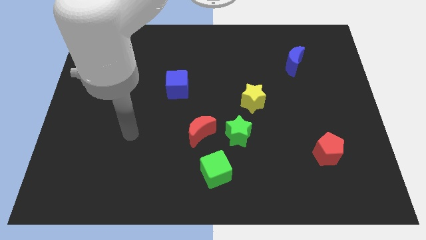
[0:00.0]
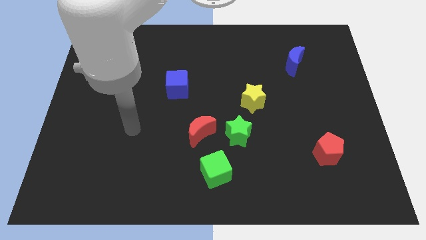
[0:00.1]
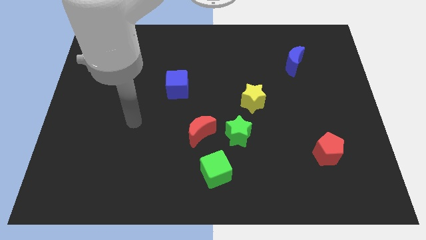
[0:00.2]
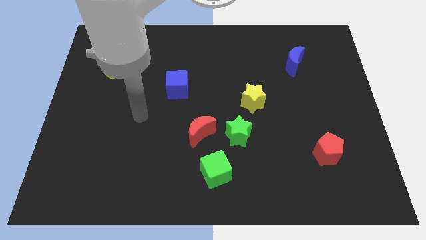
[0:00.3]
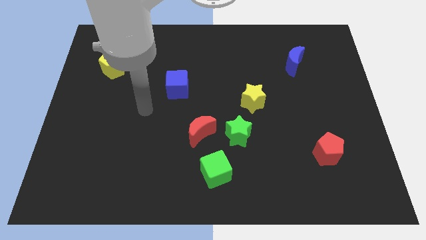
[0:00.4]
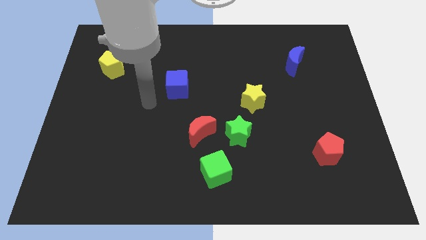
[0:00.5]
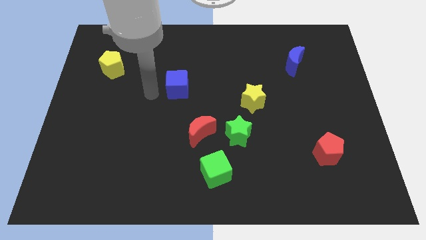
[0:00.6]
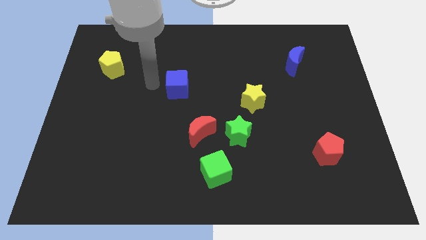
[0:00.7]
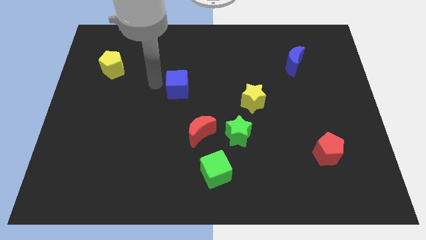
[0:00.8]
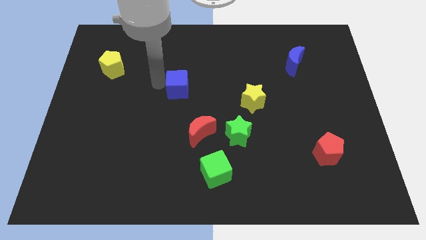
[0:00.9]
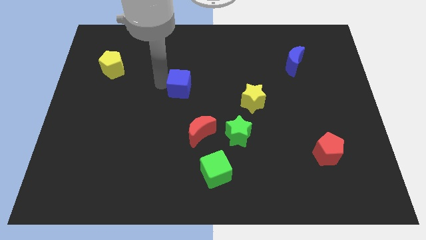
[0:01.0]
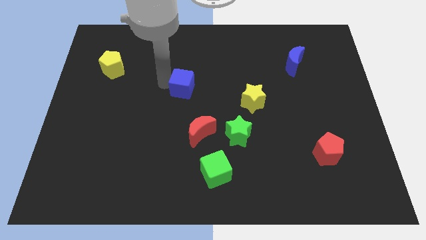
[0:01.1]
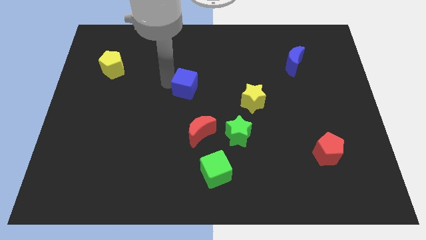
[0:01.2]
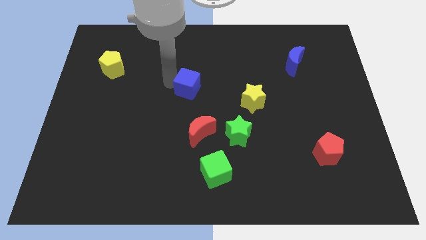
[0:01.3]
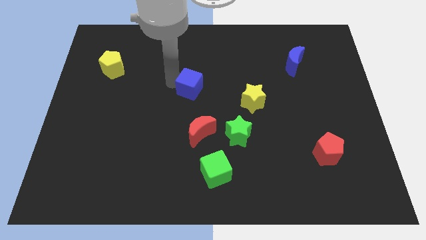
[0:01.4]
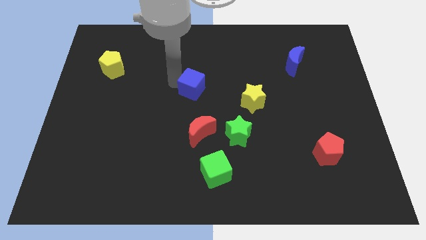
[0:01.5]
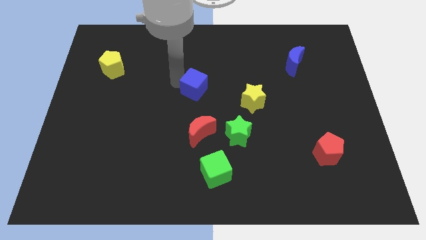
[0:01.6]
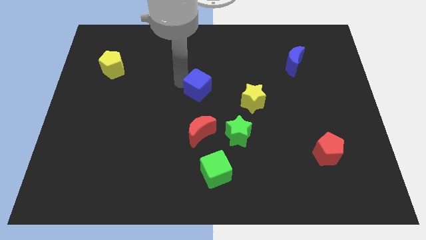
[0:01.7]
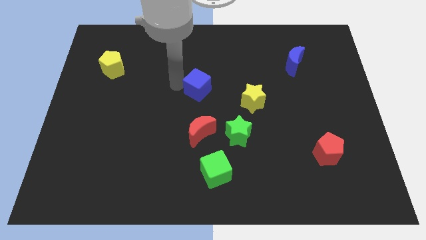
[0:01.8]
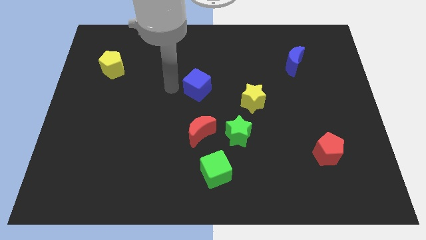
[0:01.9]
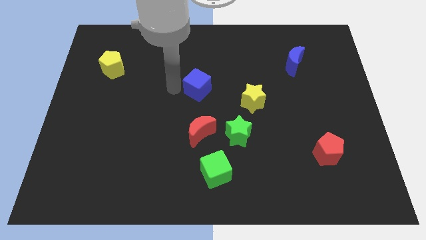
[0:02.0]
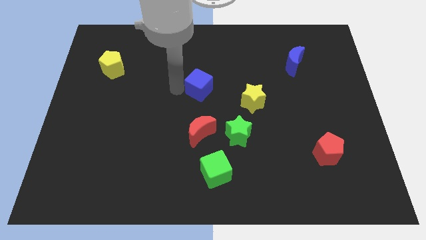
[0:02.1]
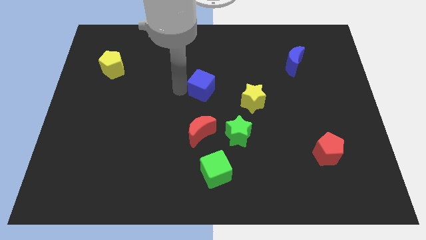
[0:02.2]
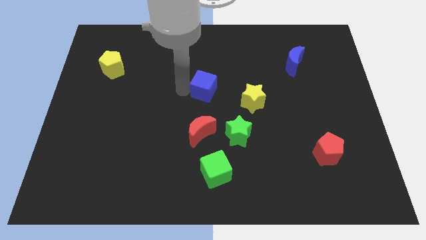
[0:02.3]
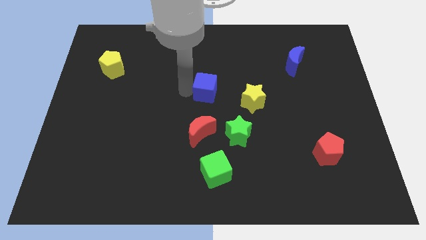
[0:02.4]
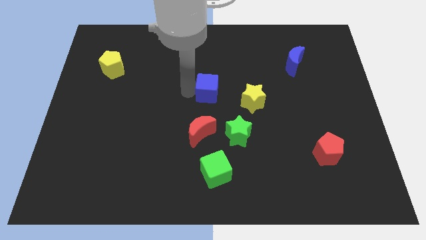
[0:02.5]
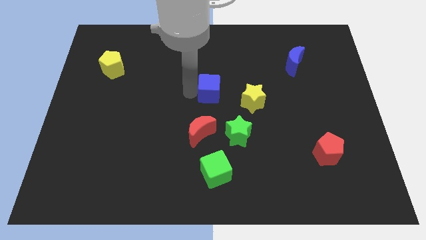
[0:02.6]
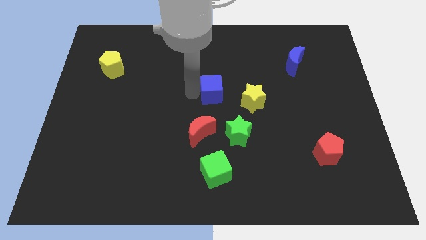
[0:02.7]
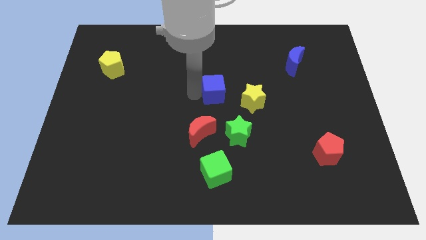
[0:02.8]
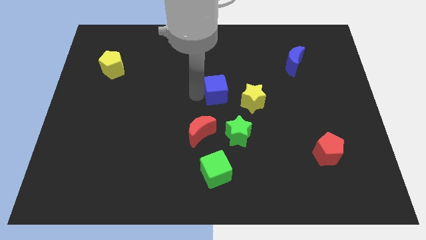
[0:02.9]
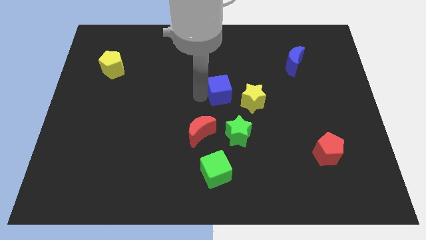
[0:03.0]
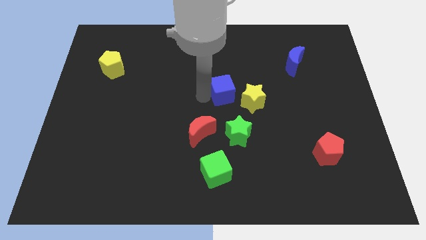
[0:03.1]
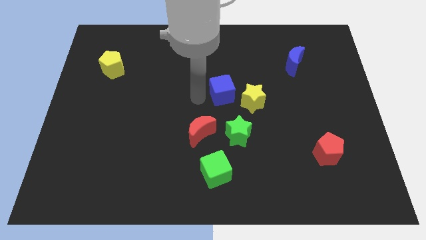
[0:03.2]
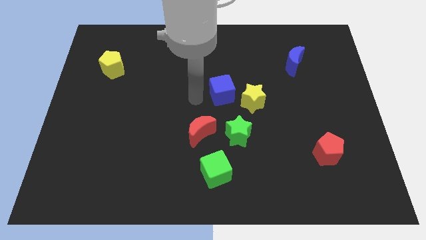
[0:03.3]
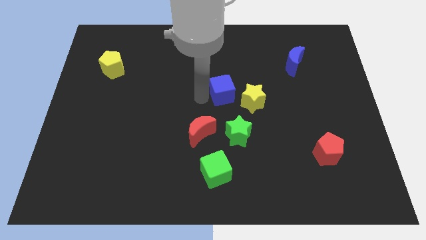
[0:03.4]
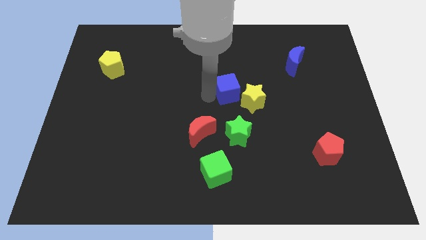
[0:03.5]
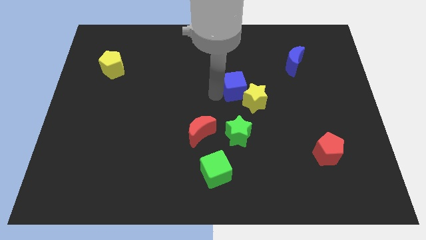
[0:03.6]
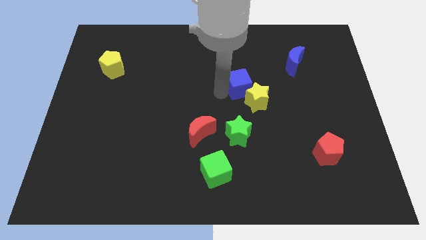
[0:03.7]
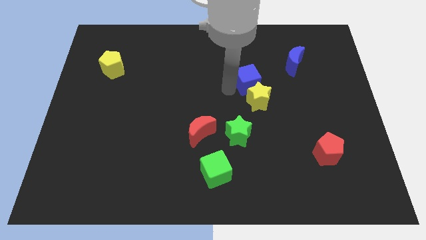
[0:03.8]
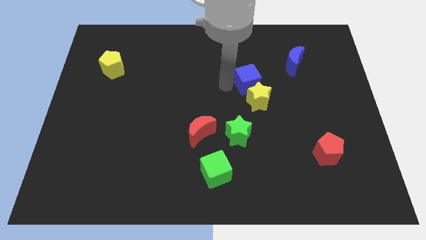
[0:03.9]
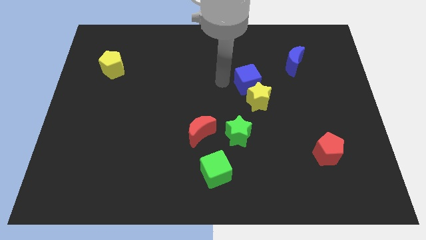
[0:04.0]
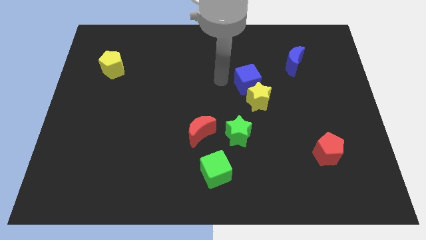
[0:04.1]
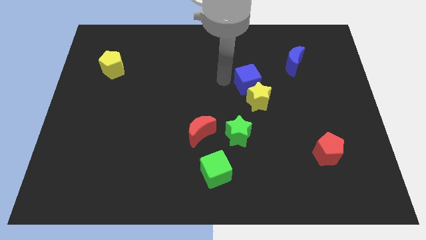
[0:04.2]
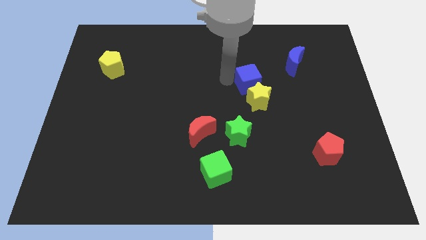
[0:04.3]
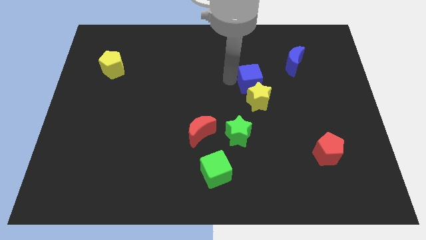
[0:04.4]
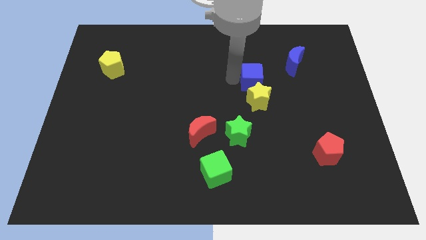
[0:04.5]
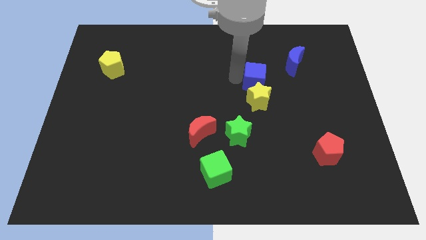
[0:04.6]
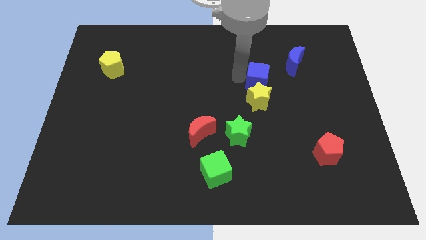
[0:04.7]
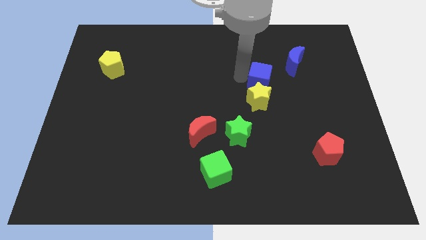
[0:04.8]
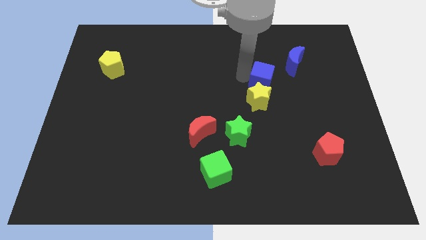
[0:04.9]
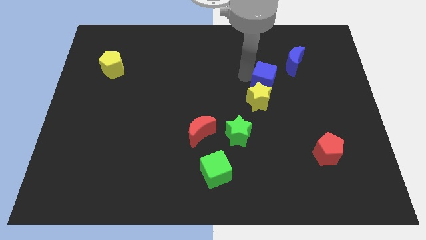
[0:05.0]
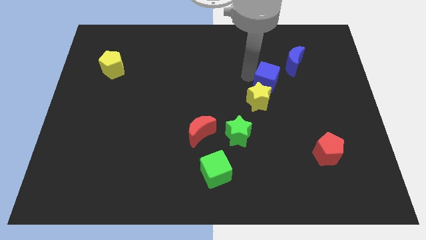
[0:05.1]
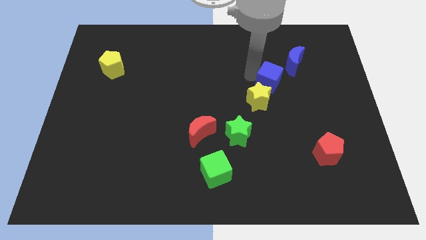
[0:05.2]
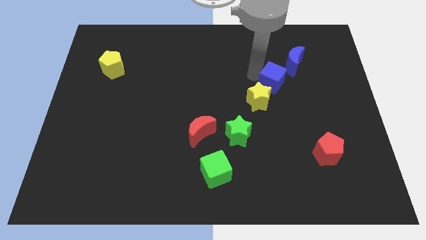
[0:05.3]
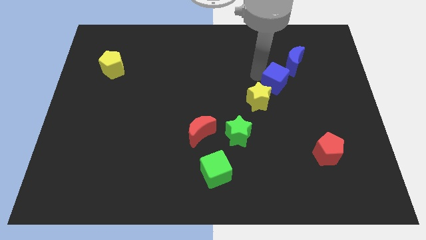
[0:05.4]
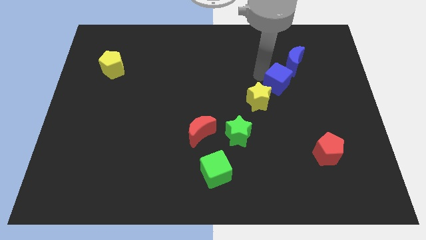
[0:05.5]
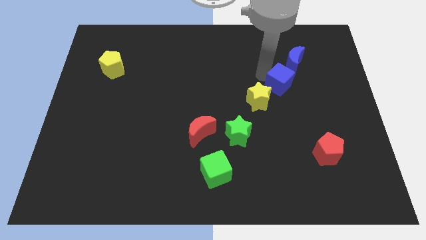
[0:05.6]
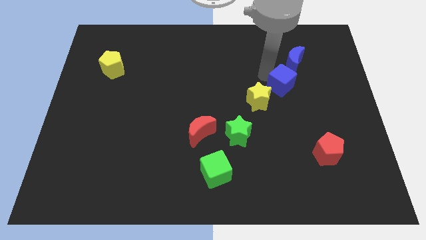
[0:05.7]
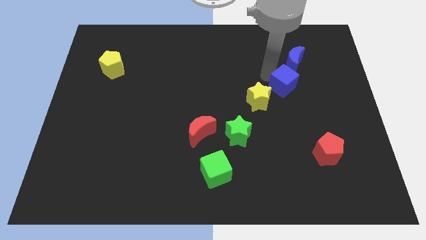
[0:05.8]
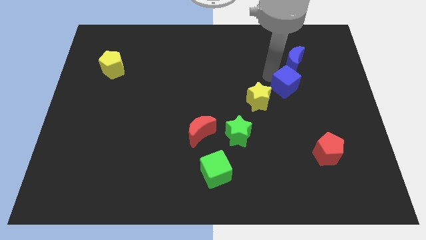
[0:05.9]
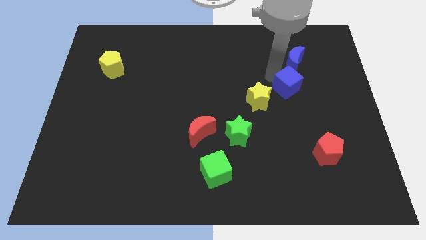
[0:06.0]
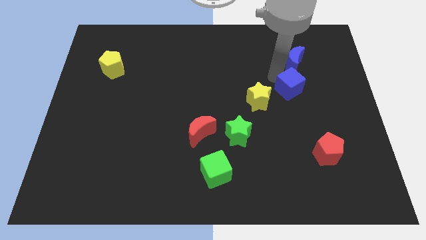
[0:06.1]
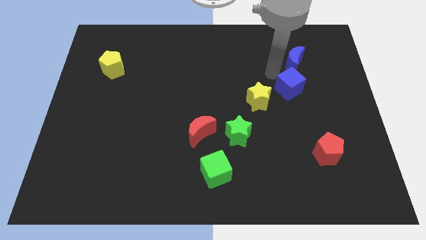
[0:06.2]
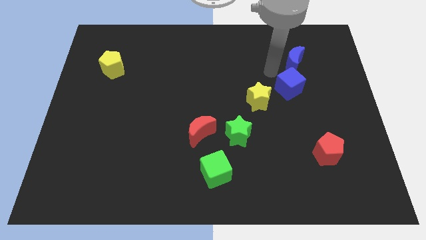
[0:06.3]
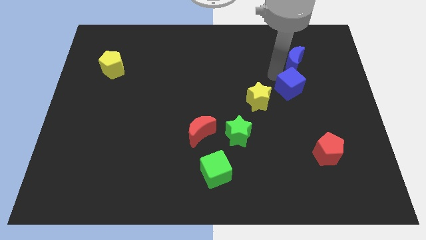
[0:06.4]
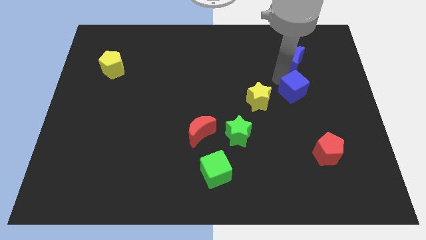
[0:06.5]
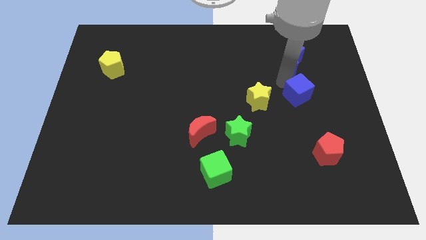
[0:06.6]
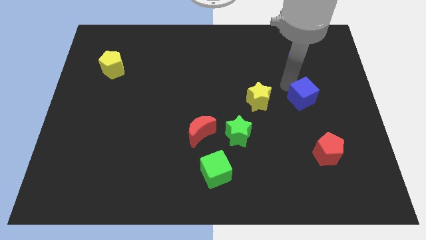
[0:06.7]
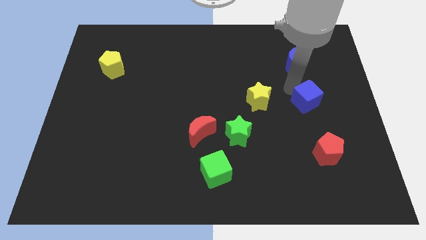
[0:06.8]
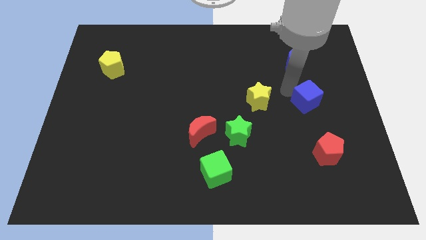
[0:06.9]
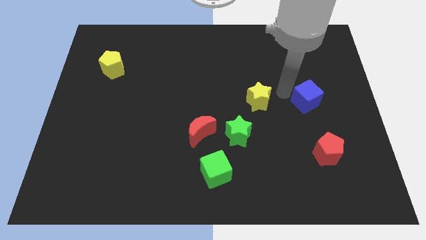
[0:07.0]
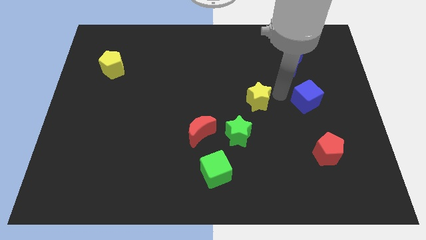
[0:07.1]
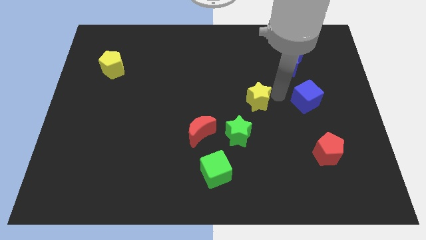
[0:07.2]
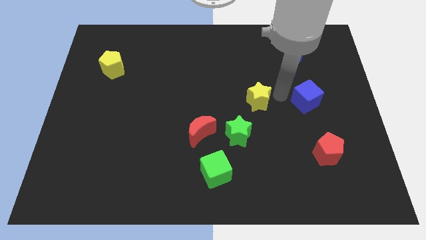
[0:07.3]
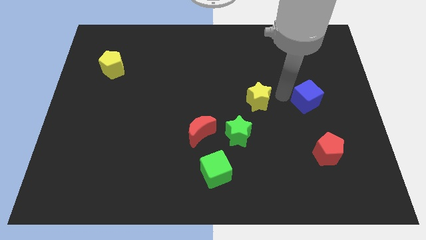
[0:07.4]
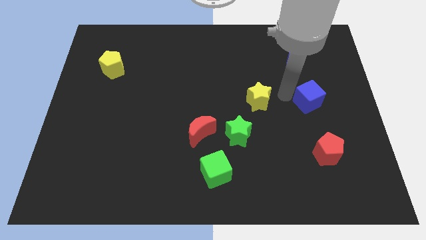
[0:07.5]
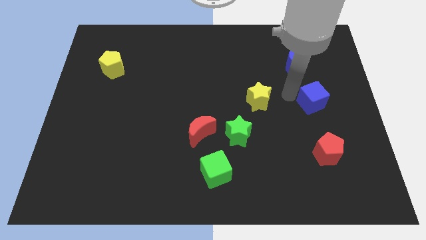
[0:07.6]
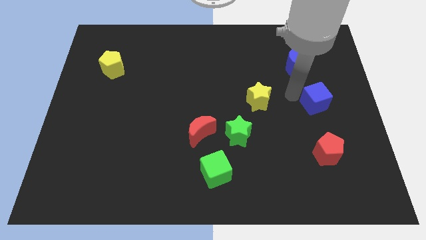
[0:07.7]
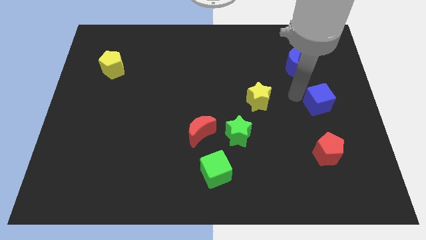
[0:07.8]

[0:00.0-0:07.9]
push the blue cube to the center right
